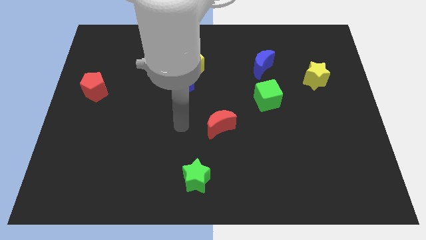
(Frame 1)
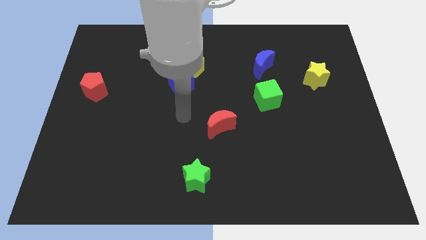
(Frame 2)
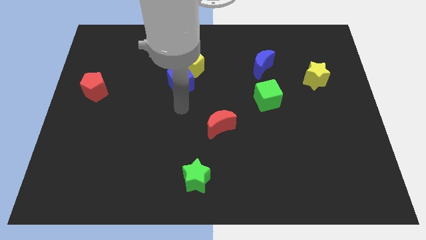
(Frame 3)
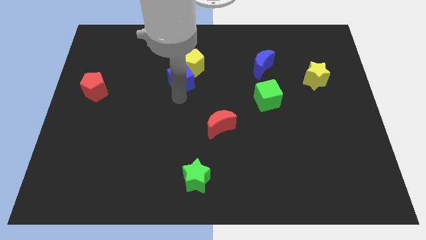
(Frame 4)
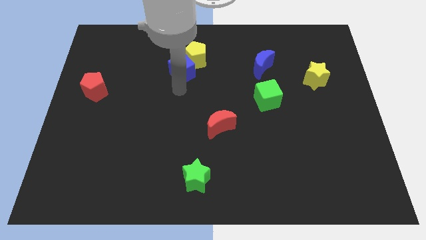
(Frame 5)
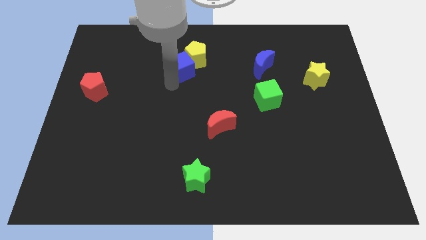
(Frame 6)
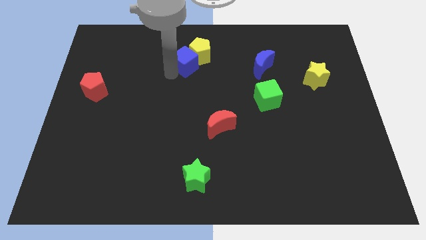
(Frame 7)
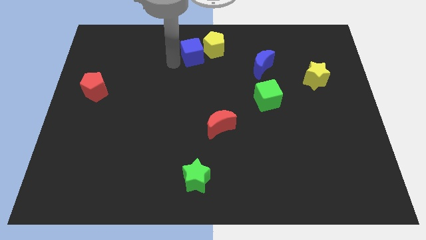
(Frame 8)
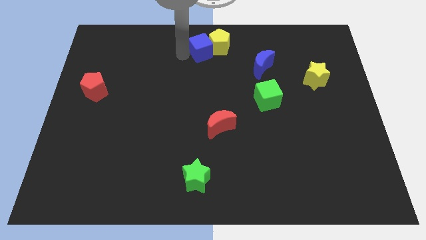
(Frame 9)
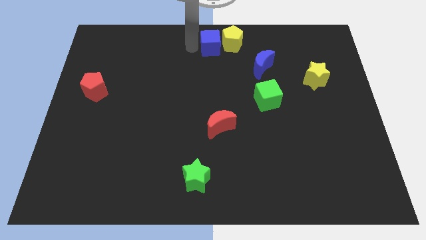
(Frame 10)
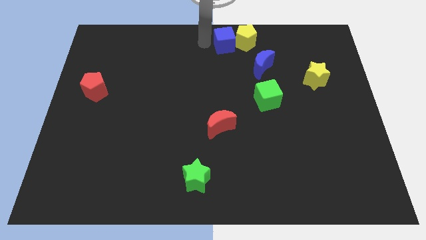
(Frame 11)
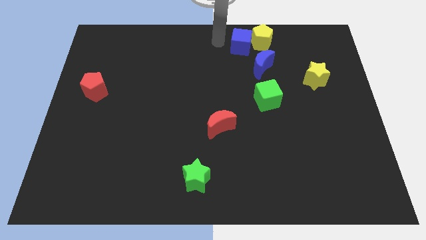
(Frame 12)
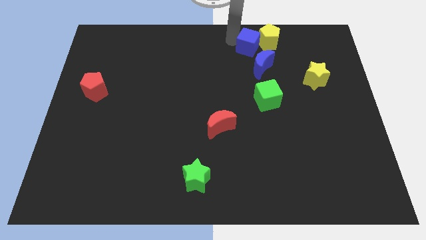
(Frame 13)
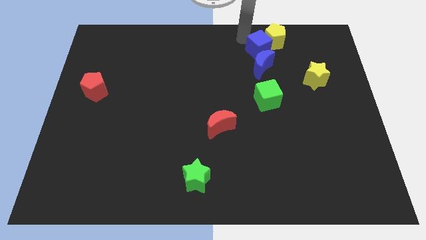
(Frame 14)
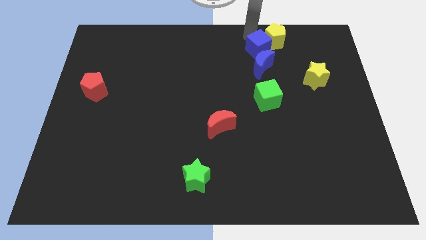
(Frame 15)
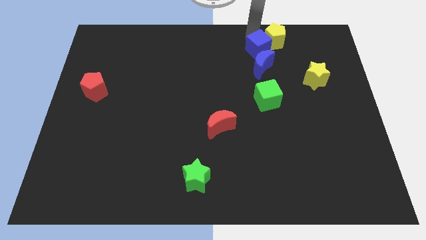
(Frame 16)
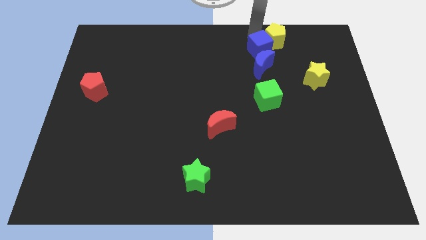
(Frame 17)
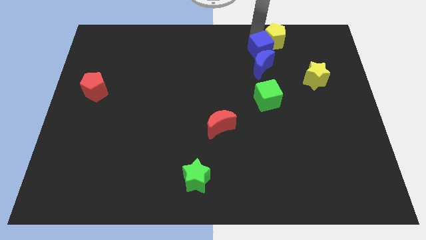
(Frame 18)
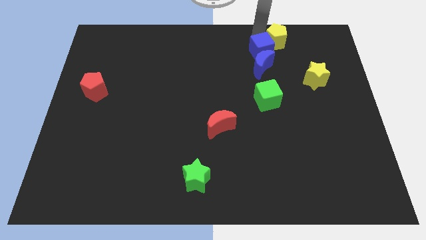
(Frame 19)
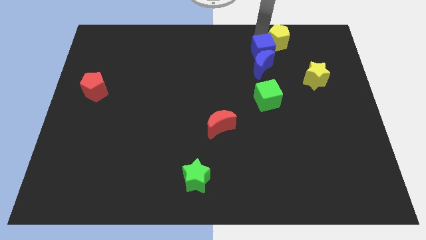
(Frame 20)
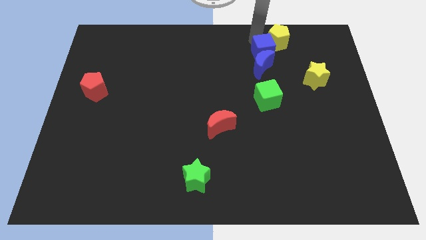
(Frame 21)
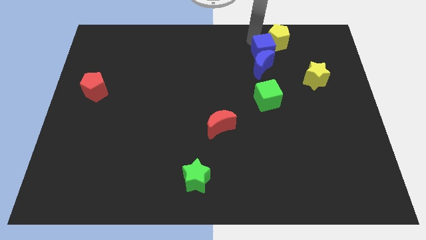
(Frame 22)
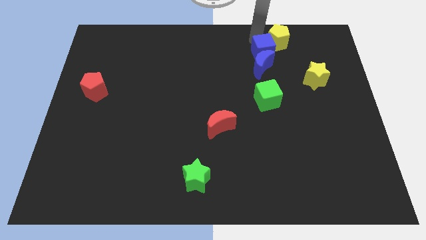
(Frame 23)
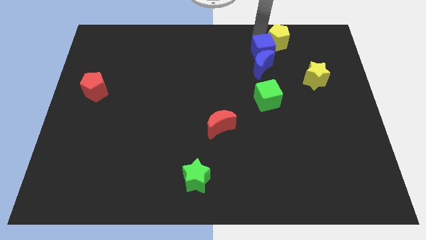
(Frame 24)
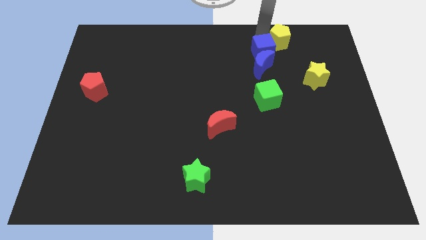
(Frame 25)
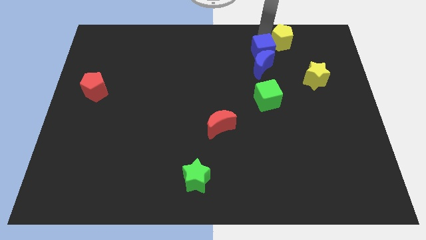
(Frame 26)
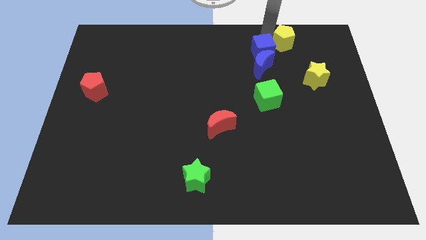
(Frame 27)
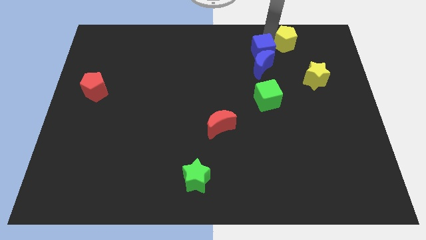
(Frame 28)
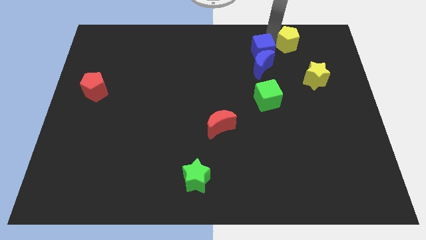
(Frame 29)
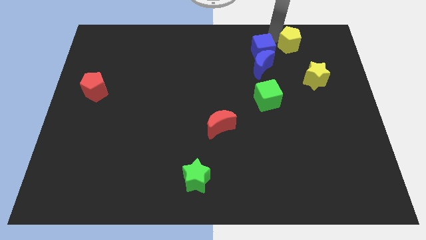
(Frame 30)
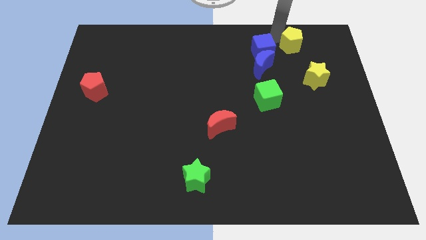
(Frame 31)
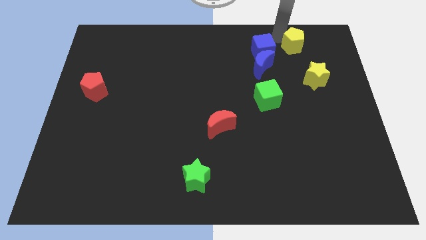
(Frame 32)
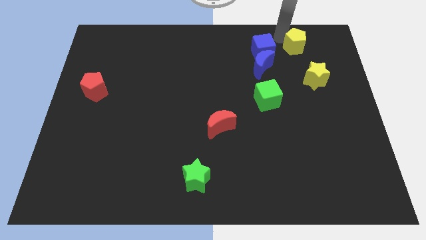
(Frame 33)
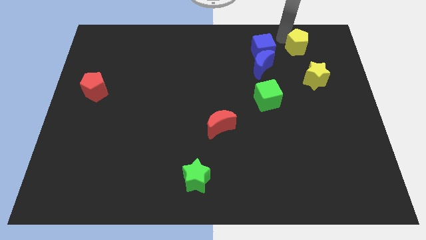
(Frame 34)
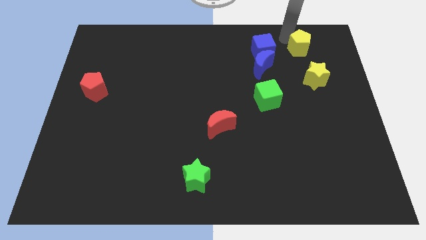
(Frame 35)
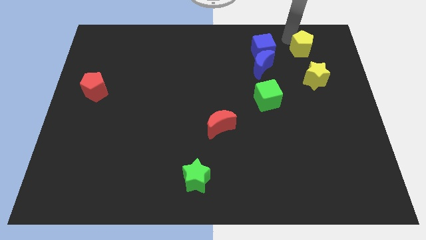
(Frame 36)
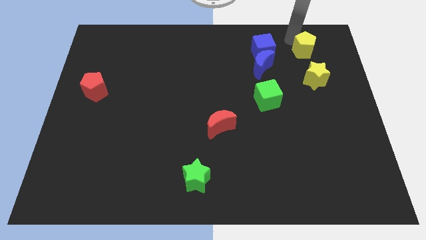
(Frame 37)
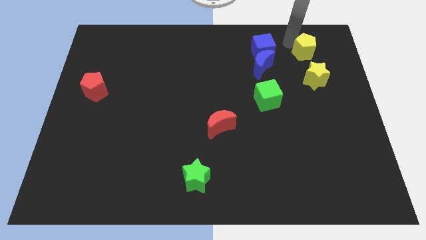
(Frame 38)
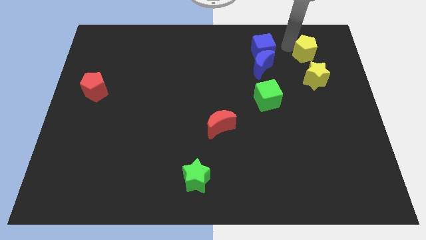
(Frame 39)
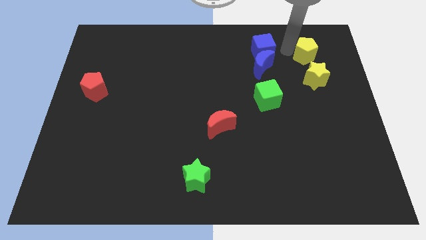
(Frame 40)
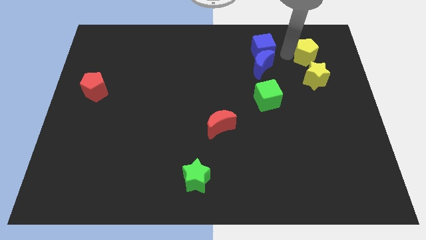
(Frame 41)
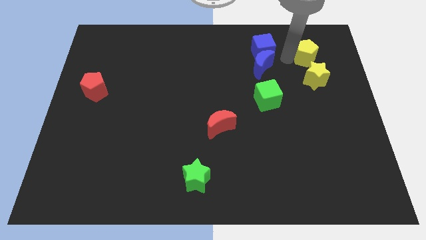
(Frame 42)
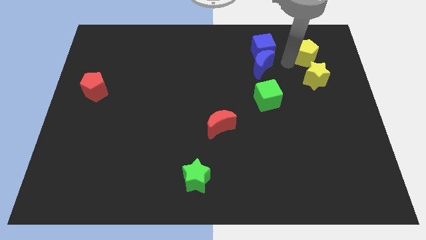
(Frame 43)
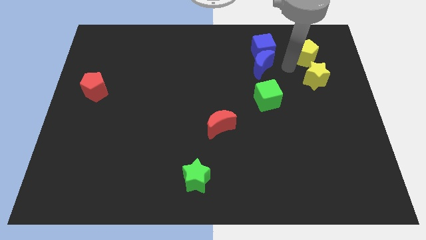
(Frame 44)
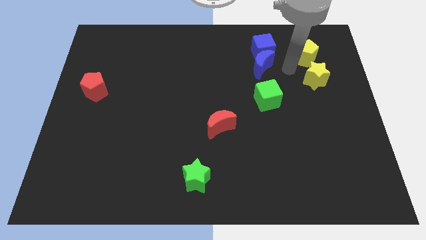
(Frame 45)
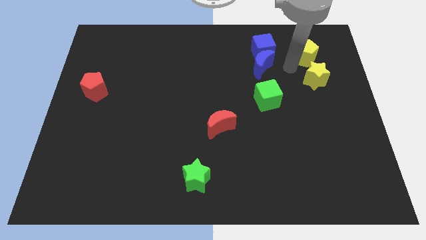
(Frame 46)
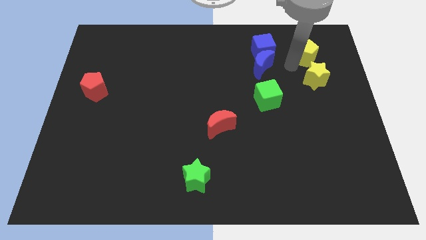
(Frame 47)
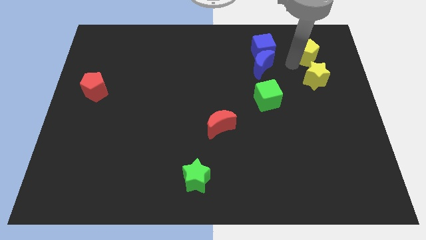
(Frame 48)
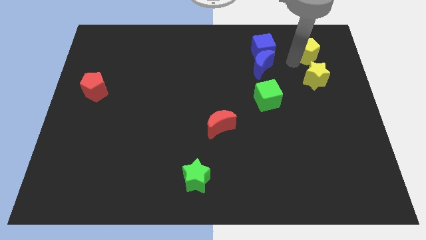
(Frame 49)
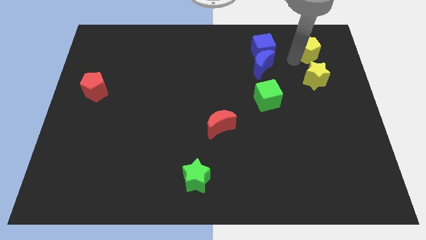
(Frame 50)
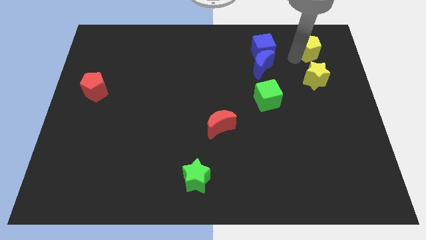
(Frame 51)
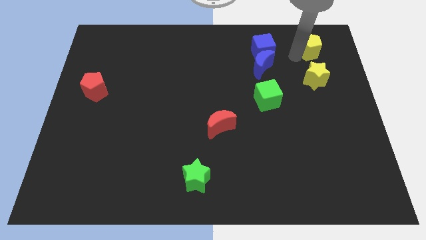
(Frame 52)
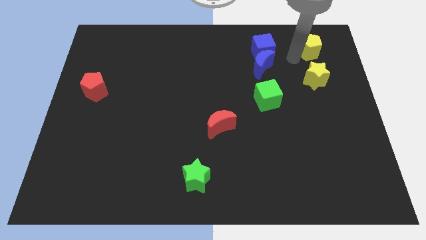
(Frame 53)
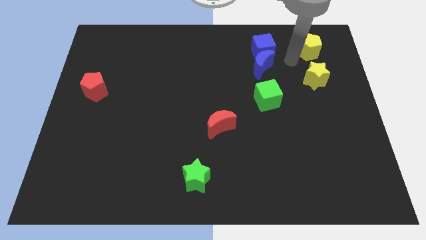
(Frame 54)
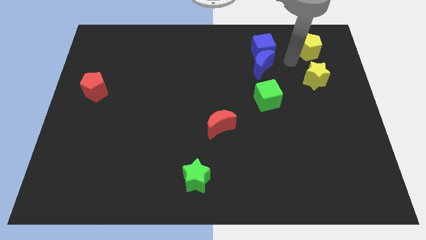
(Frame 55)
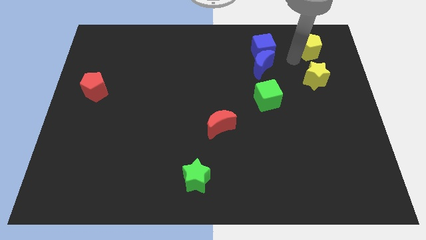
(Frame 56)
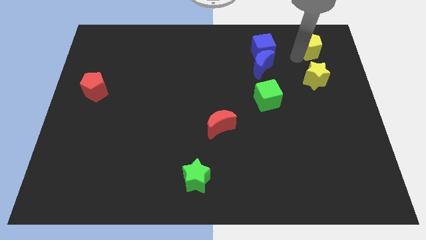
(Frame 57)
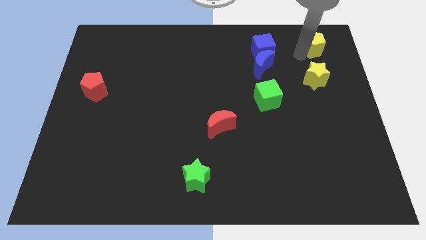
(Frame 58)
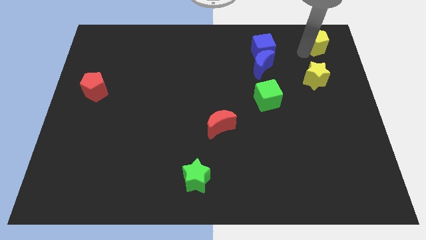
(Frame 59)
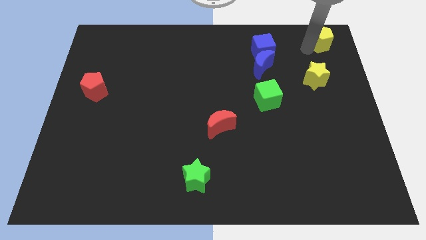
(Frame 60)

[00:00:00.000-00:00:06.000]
push the yellow pentagon to the top right
